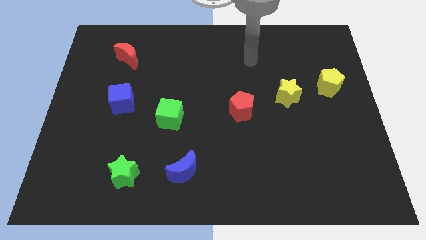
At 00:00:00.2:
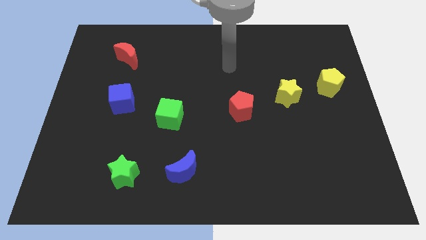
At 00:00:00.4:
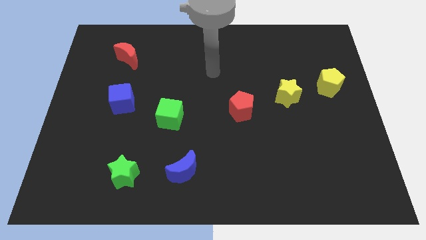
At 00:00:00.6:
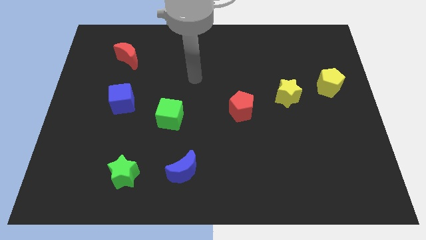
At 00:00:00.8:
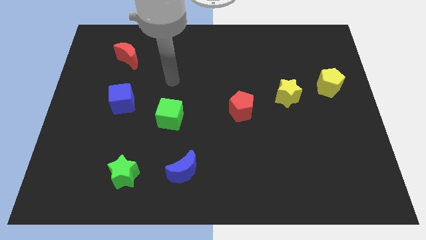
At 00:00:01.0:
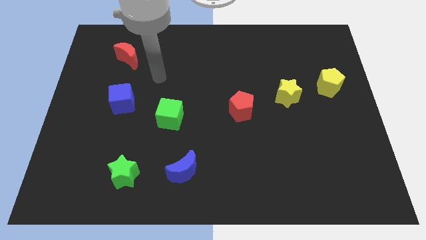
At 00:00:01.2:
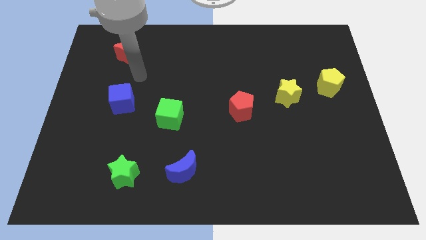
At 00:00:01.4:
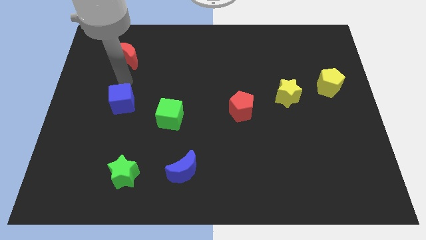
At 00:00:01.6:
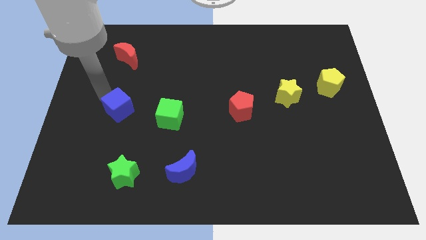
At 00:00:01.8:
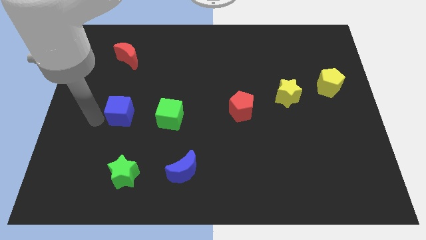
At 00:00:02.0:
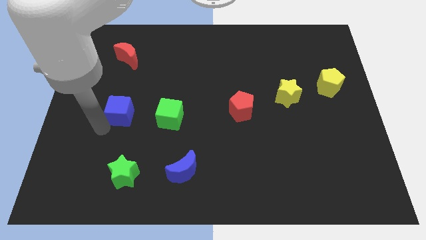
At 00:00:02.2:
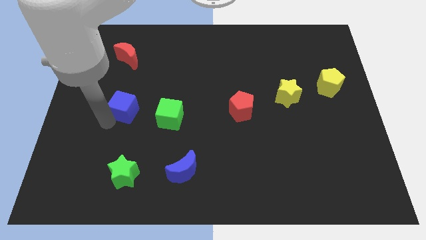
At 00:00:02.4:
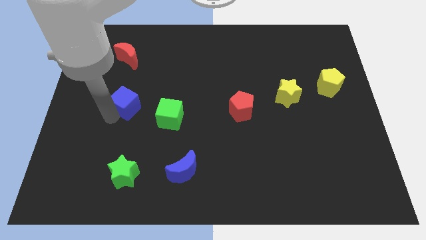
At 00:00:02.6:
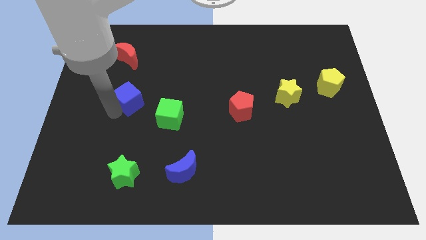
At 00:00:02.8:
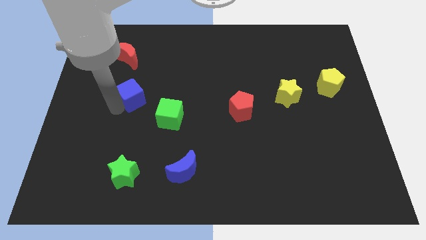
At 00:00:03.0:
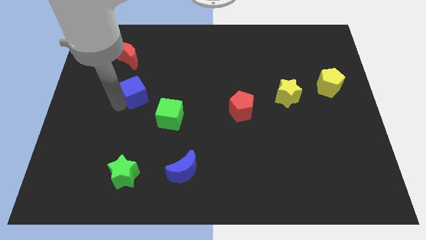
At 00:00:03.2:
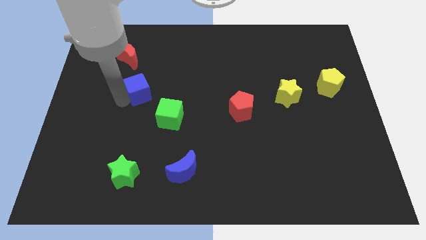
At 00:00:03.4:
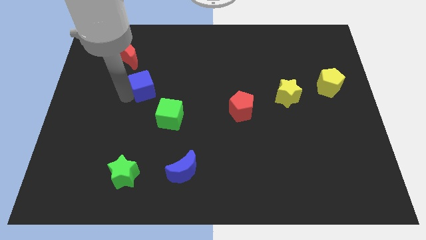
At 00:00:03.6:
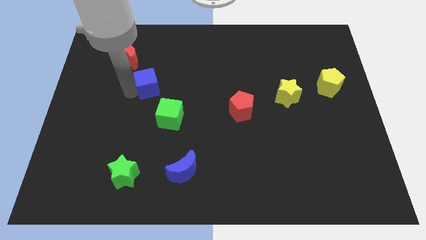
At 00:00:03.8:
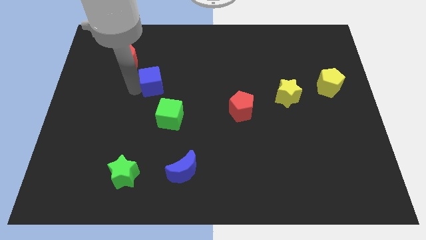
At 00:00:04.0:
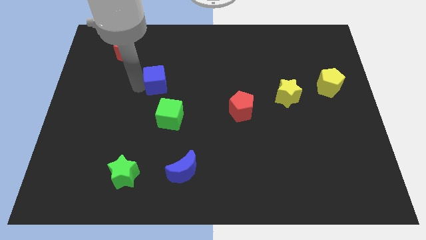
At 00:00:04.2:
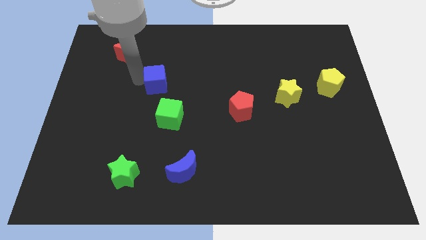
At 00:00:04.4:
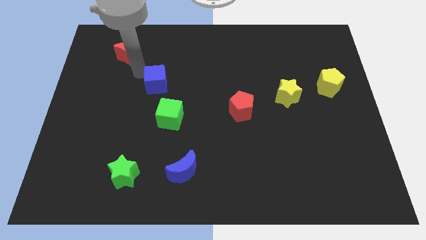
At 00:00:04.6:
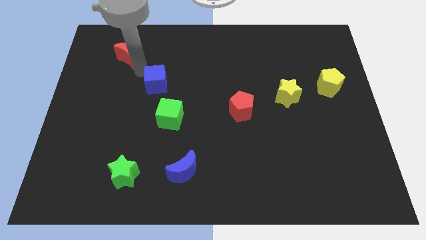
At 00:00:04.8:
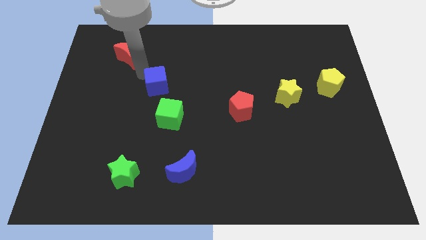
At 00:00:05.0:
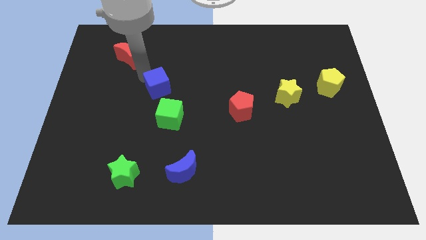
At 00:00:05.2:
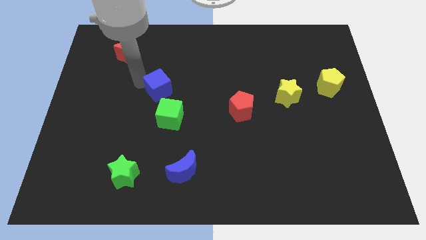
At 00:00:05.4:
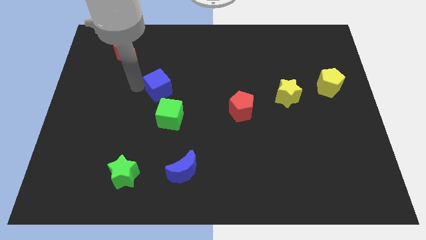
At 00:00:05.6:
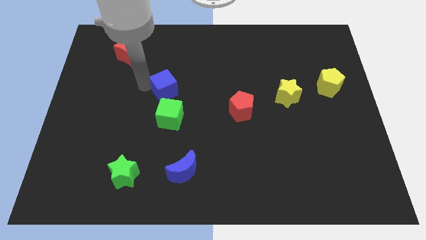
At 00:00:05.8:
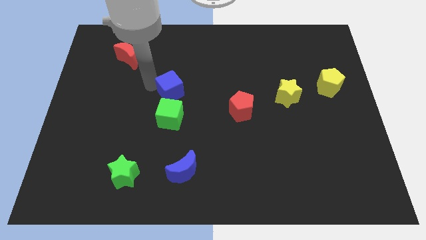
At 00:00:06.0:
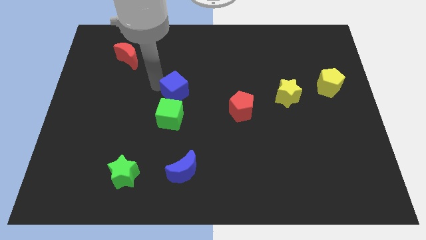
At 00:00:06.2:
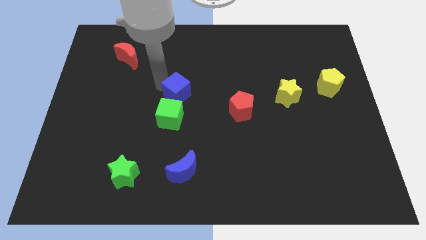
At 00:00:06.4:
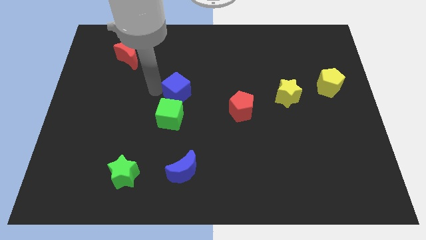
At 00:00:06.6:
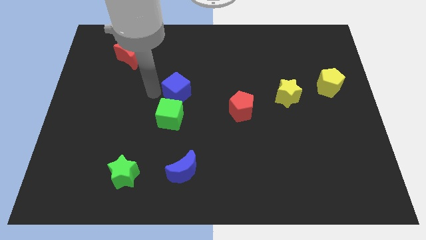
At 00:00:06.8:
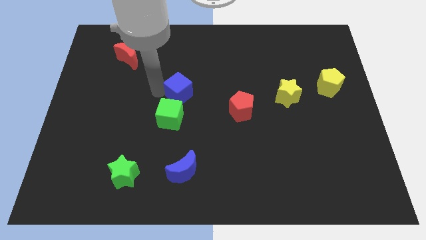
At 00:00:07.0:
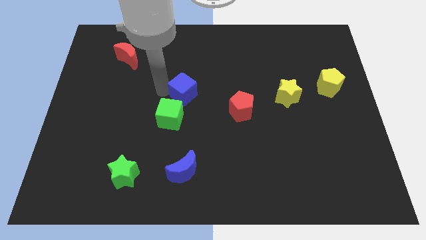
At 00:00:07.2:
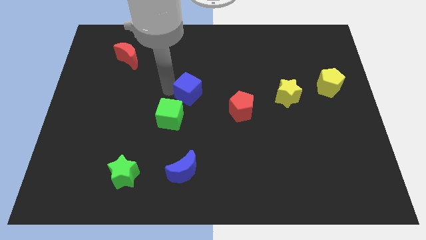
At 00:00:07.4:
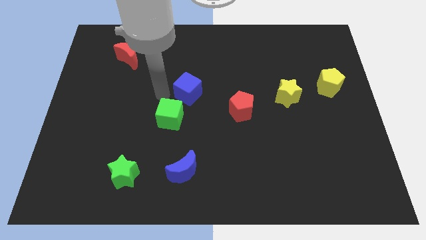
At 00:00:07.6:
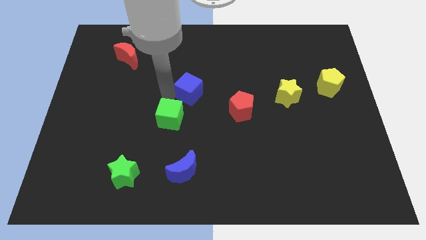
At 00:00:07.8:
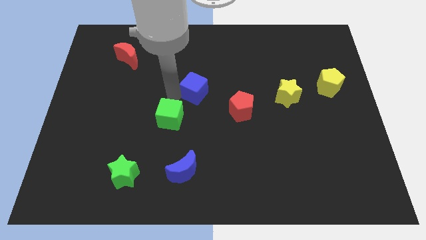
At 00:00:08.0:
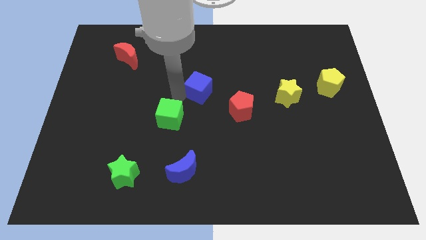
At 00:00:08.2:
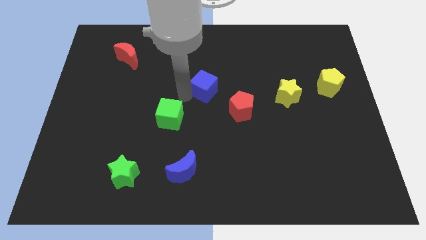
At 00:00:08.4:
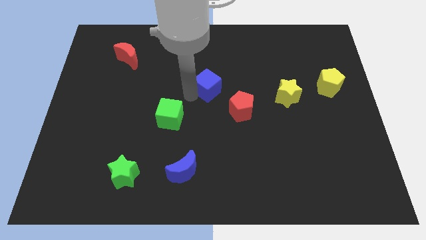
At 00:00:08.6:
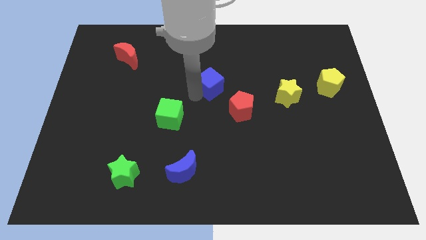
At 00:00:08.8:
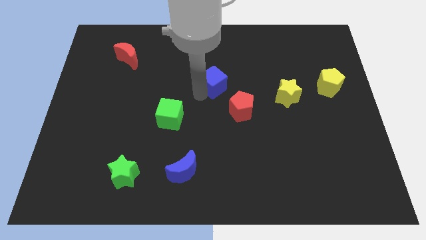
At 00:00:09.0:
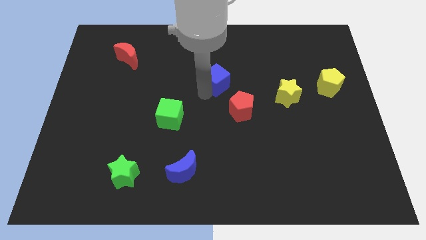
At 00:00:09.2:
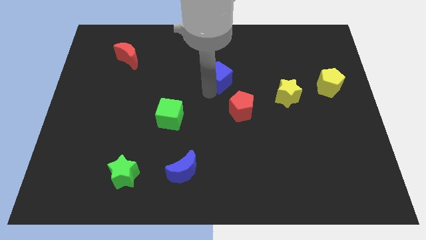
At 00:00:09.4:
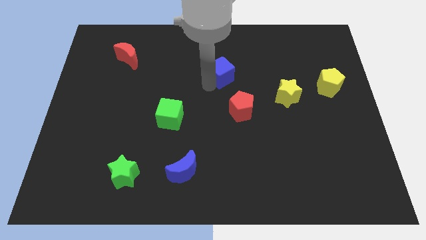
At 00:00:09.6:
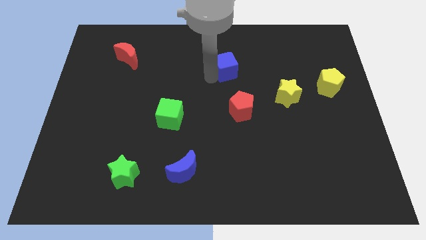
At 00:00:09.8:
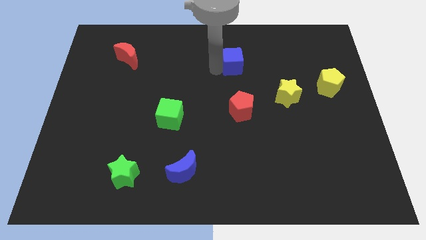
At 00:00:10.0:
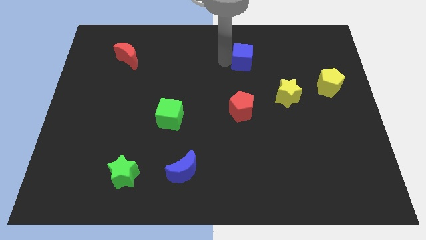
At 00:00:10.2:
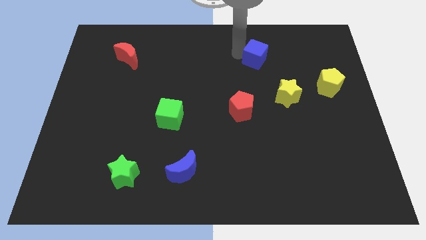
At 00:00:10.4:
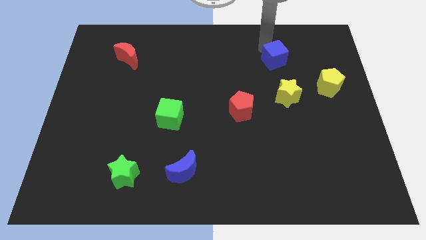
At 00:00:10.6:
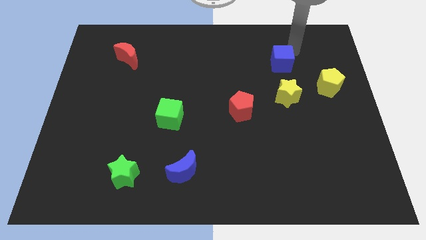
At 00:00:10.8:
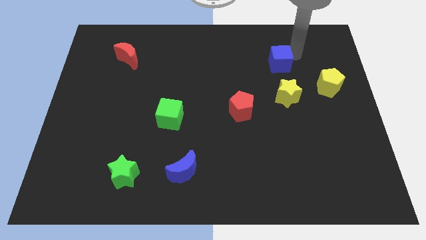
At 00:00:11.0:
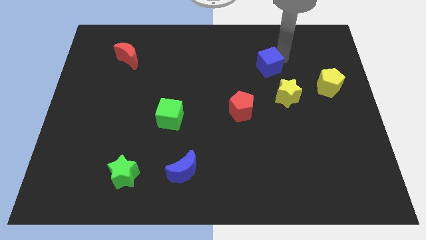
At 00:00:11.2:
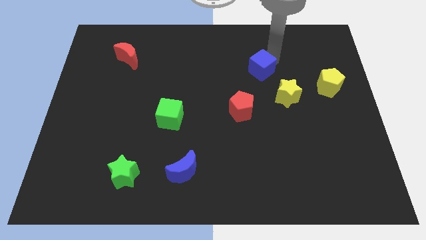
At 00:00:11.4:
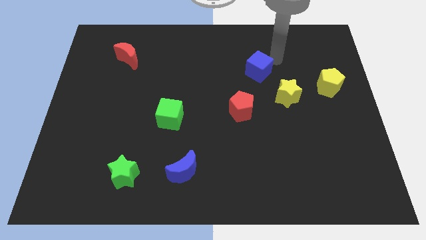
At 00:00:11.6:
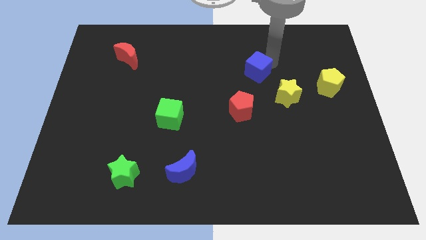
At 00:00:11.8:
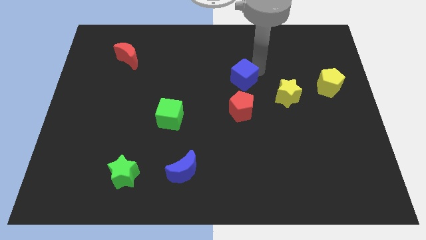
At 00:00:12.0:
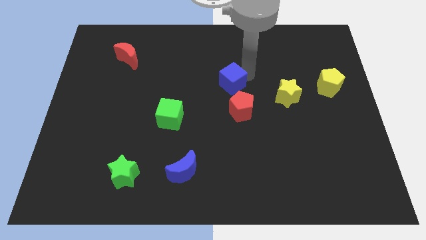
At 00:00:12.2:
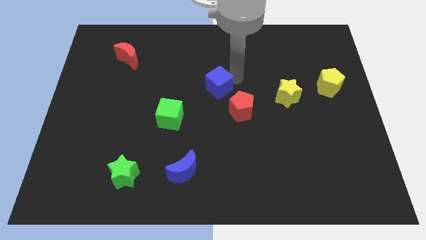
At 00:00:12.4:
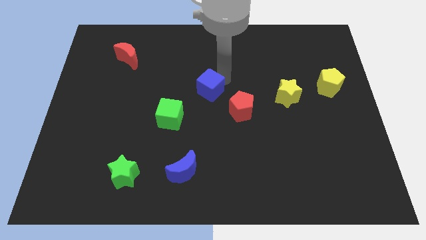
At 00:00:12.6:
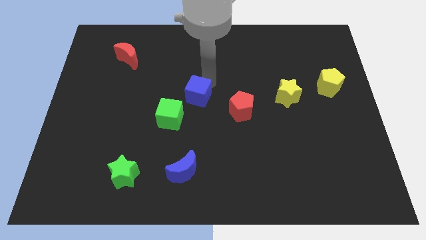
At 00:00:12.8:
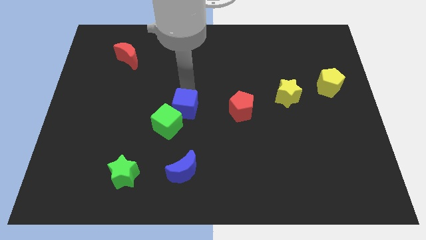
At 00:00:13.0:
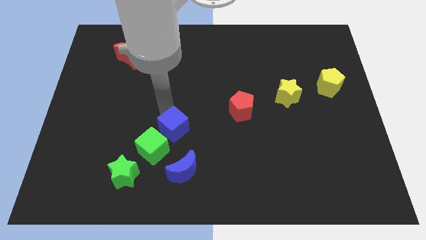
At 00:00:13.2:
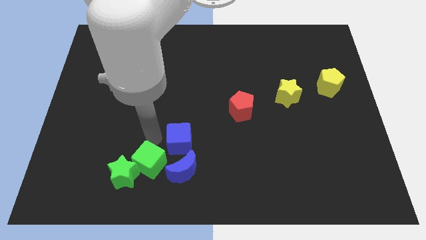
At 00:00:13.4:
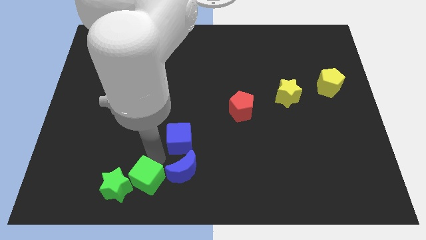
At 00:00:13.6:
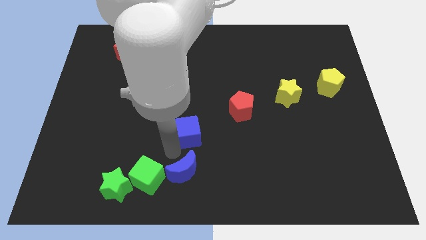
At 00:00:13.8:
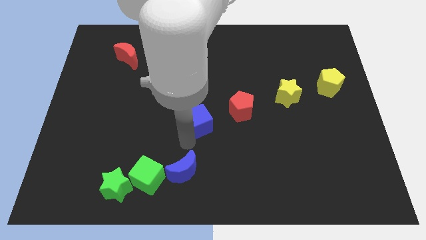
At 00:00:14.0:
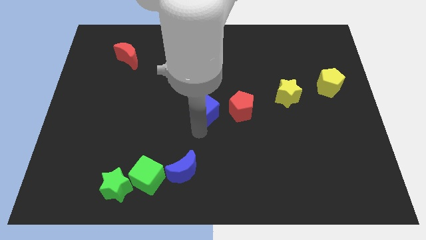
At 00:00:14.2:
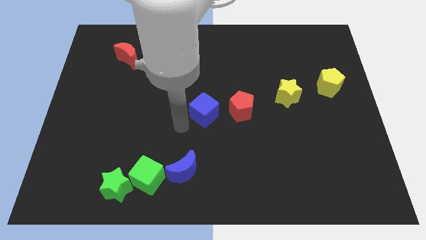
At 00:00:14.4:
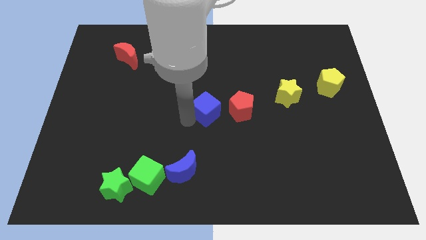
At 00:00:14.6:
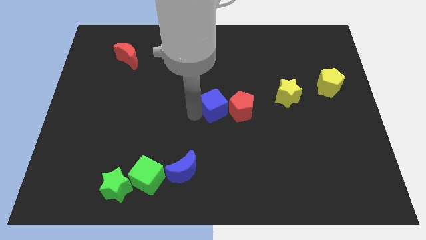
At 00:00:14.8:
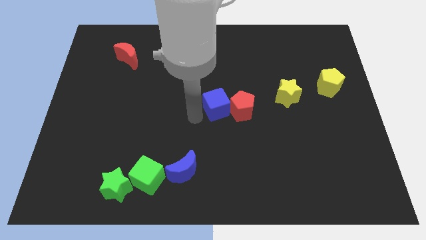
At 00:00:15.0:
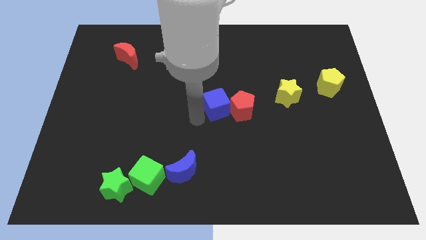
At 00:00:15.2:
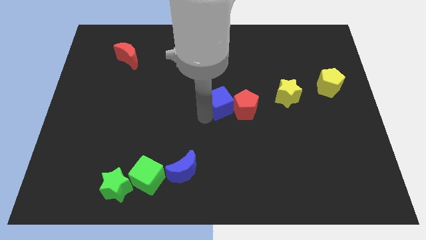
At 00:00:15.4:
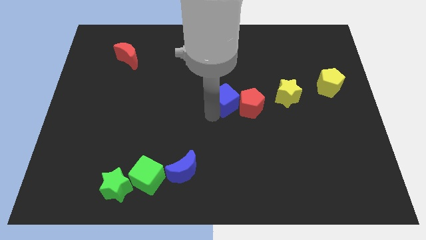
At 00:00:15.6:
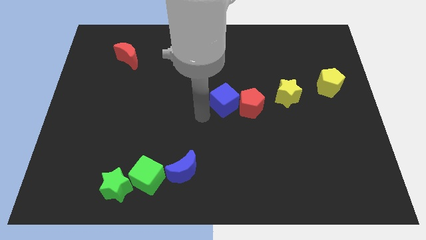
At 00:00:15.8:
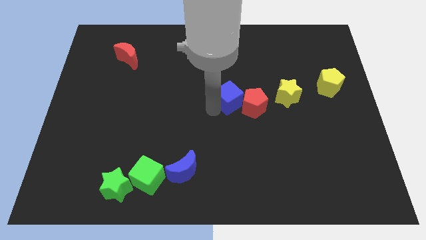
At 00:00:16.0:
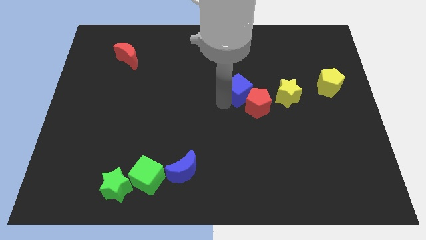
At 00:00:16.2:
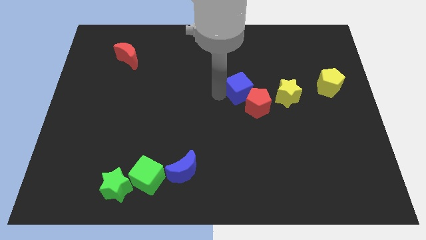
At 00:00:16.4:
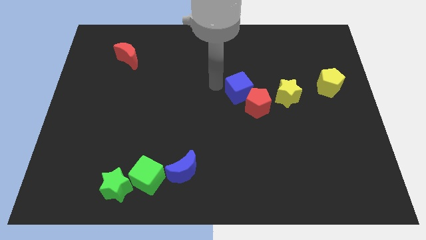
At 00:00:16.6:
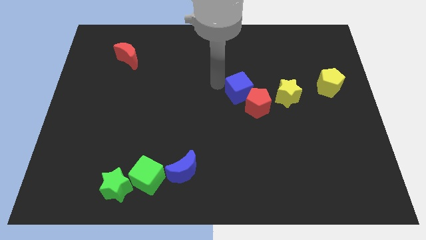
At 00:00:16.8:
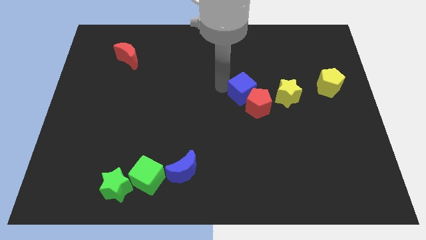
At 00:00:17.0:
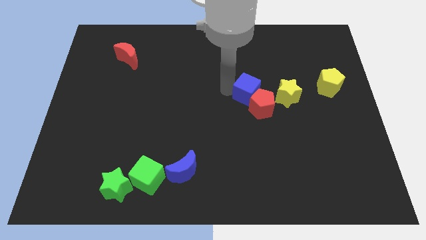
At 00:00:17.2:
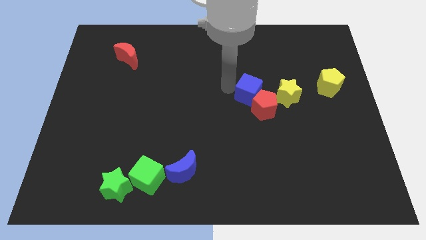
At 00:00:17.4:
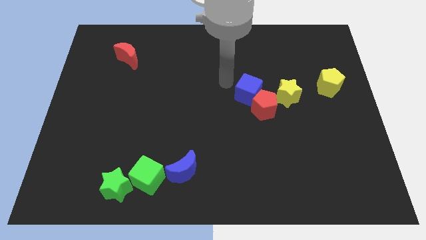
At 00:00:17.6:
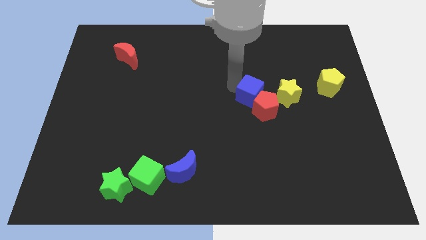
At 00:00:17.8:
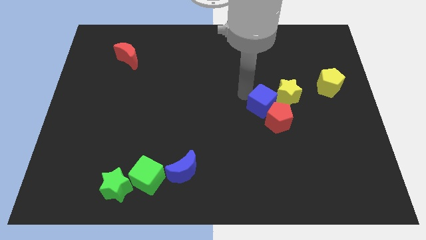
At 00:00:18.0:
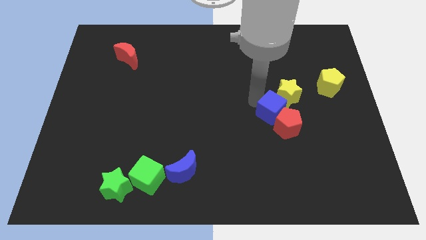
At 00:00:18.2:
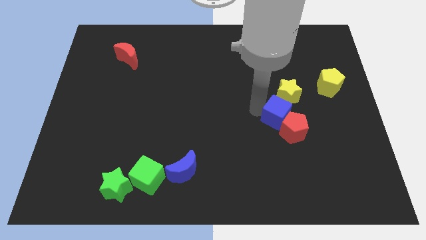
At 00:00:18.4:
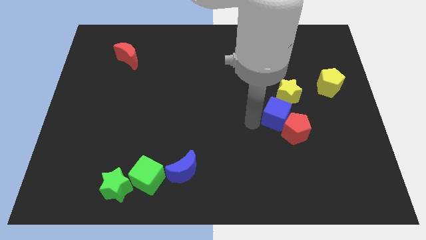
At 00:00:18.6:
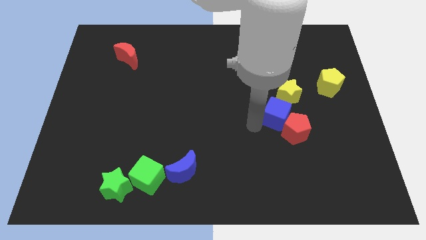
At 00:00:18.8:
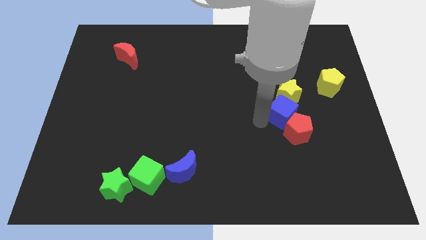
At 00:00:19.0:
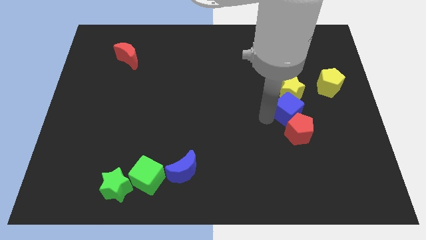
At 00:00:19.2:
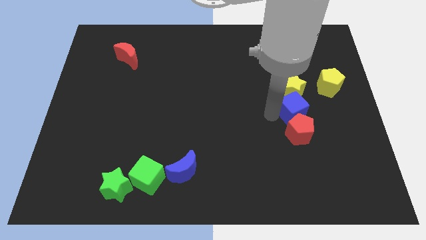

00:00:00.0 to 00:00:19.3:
push the blue cube diagonally down and to the left of the yellow pentagon